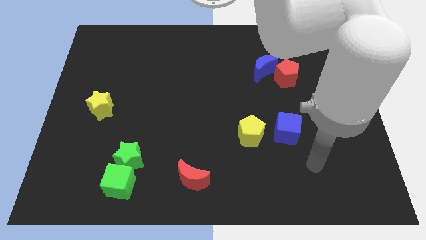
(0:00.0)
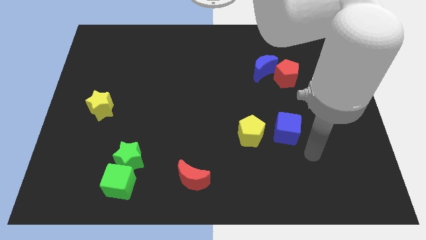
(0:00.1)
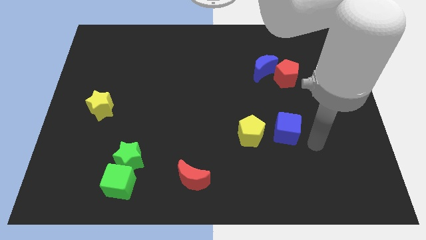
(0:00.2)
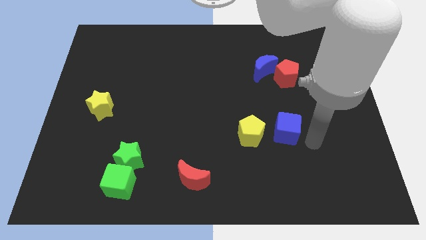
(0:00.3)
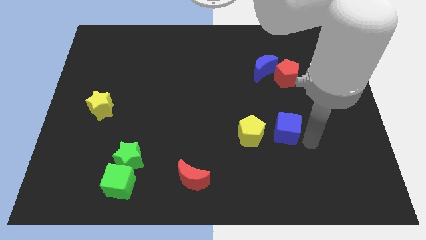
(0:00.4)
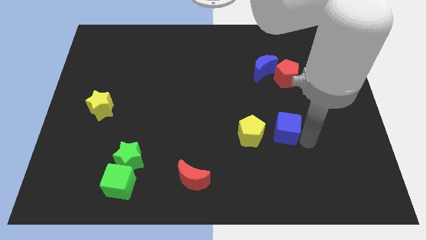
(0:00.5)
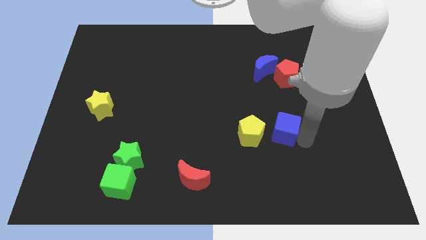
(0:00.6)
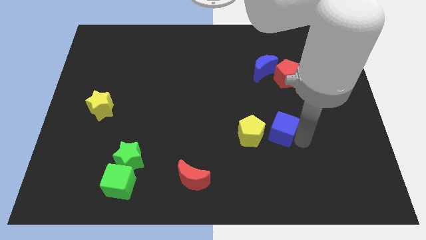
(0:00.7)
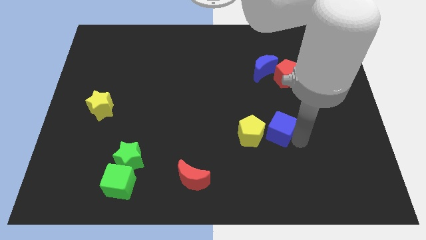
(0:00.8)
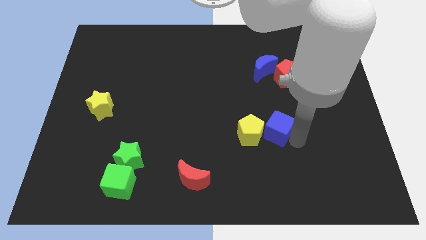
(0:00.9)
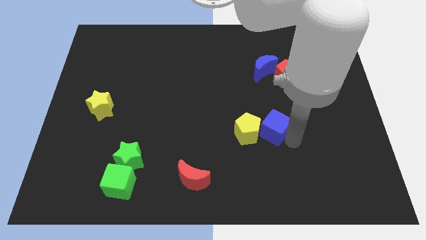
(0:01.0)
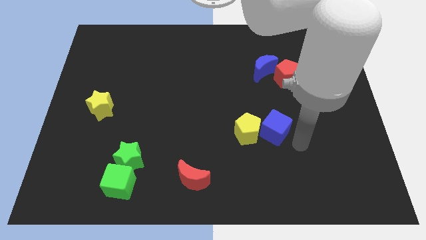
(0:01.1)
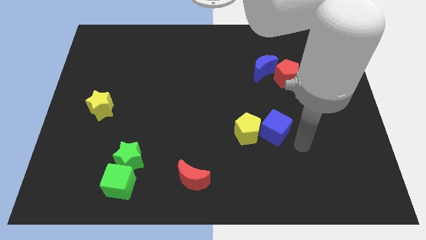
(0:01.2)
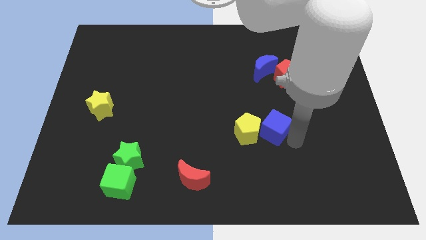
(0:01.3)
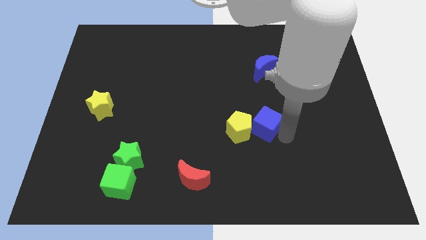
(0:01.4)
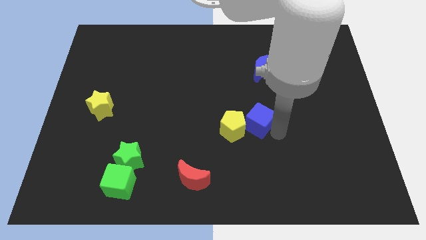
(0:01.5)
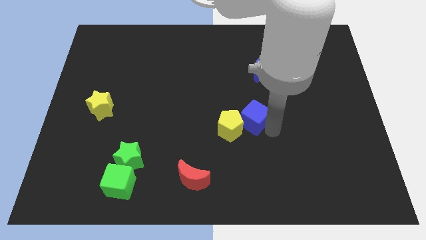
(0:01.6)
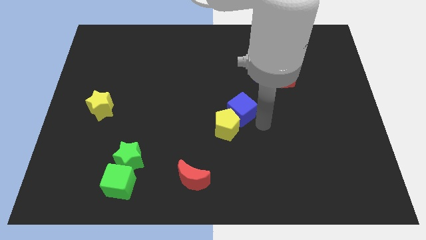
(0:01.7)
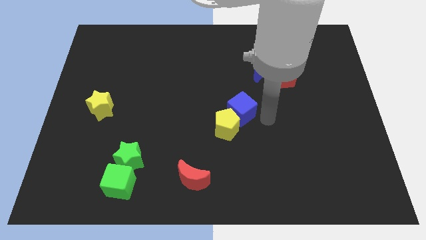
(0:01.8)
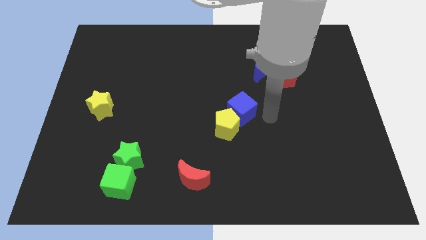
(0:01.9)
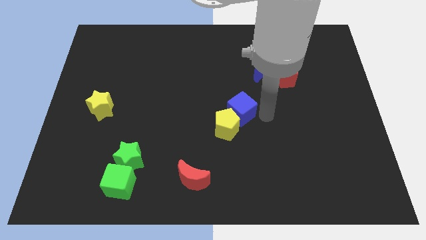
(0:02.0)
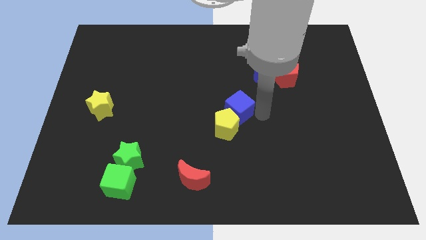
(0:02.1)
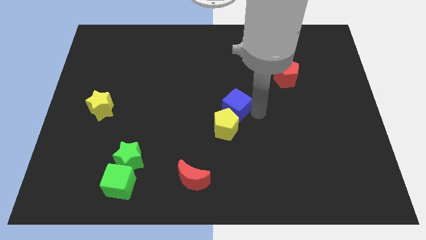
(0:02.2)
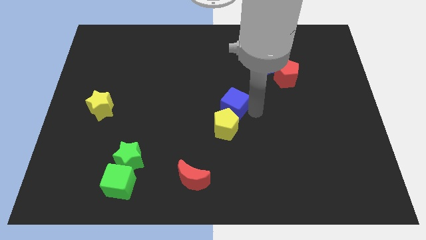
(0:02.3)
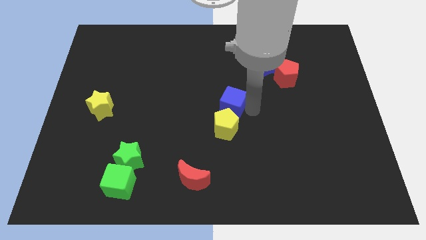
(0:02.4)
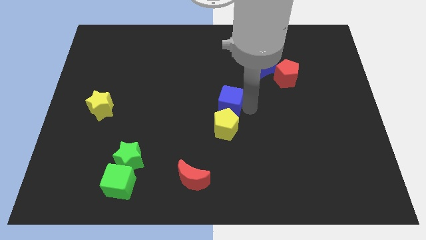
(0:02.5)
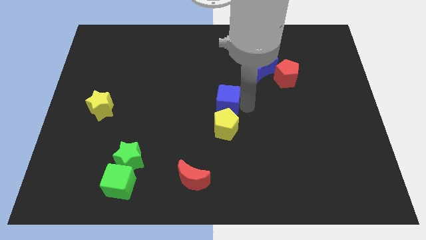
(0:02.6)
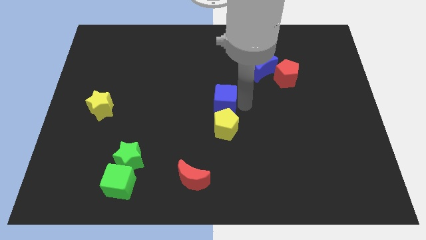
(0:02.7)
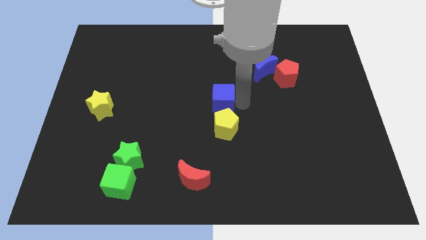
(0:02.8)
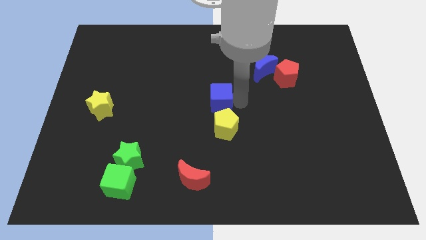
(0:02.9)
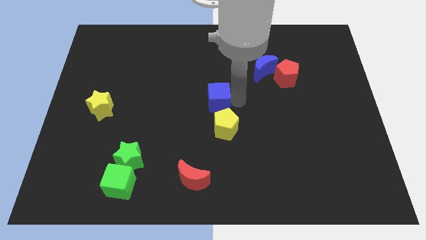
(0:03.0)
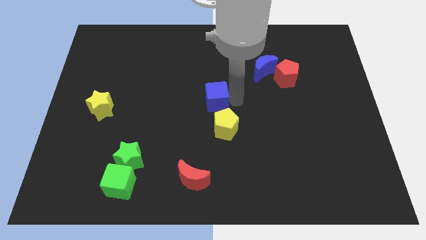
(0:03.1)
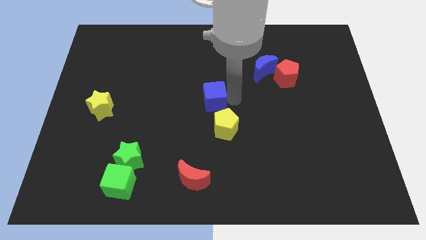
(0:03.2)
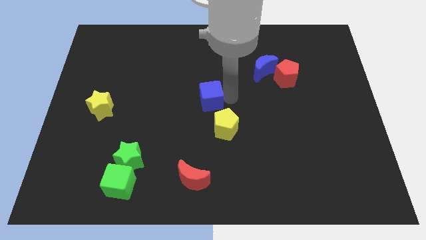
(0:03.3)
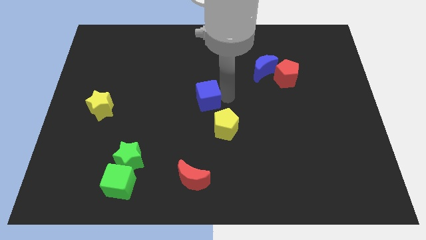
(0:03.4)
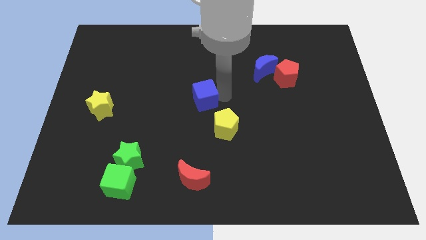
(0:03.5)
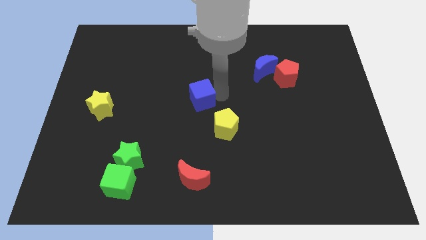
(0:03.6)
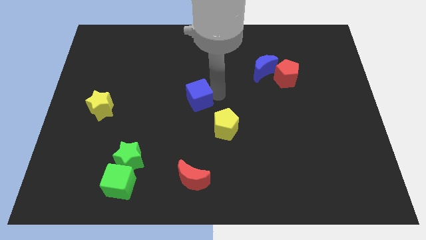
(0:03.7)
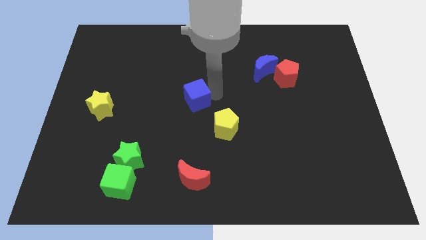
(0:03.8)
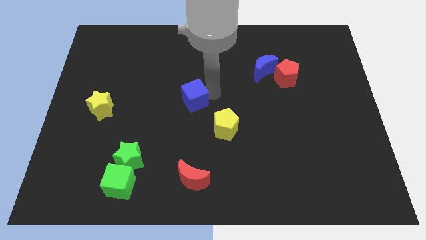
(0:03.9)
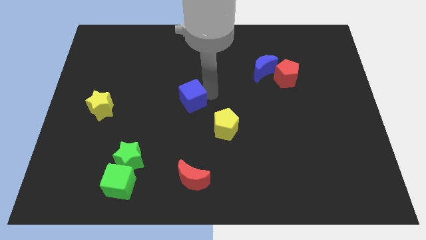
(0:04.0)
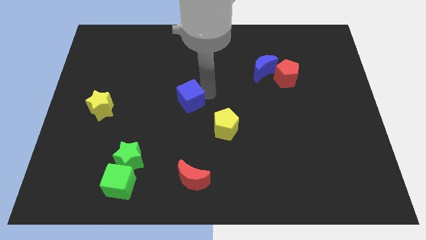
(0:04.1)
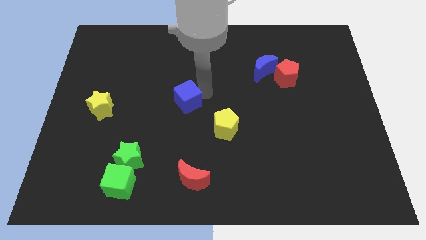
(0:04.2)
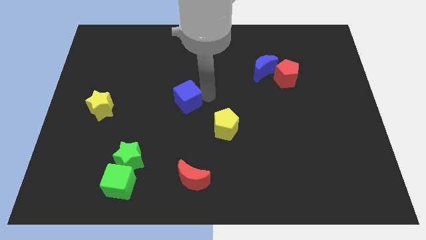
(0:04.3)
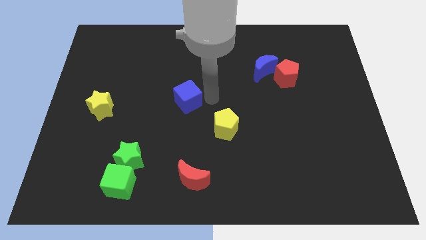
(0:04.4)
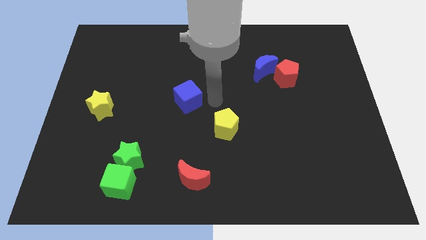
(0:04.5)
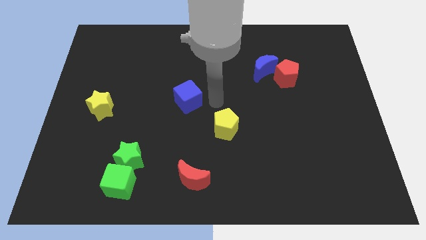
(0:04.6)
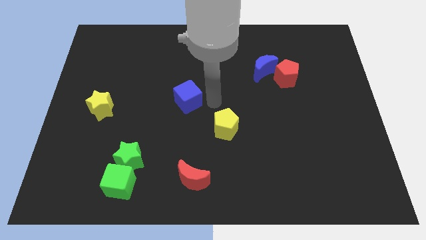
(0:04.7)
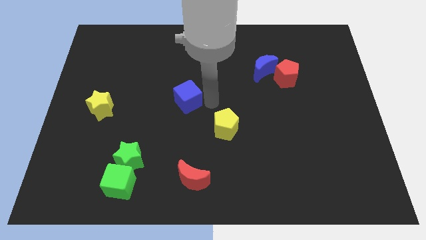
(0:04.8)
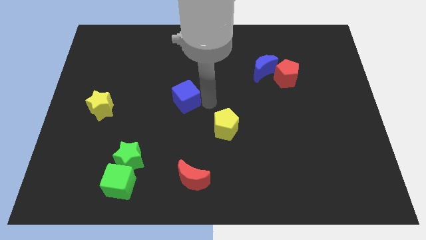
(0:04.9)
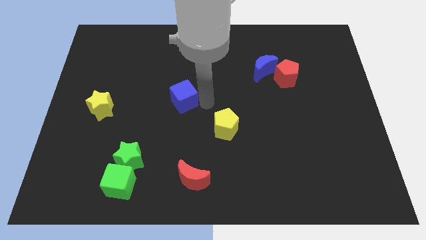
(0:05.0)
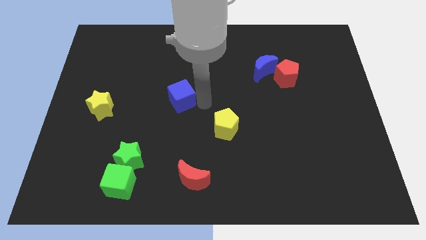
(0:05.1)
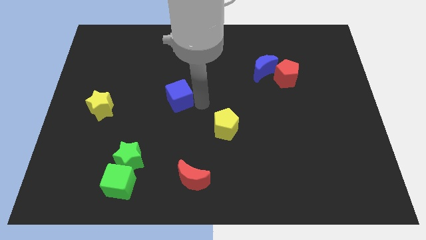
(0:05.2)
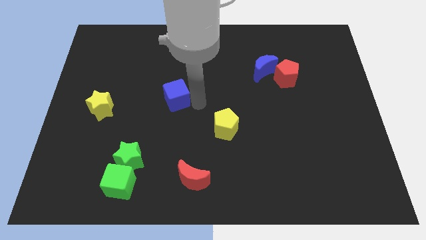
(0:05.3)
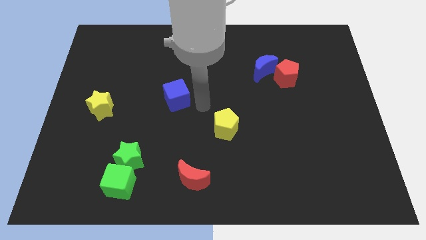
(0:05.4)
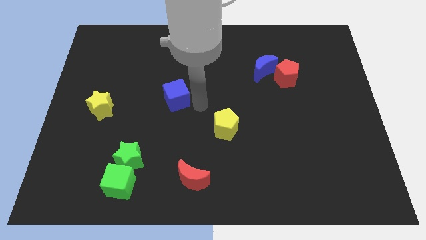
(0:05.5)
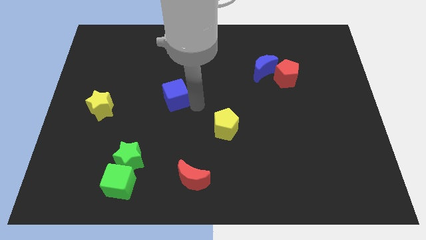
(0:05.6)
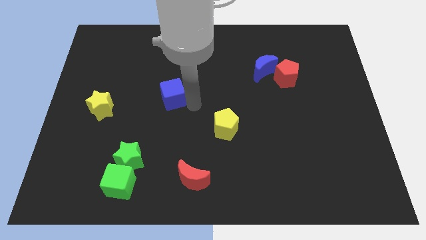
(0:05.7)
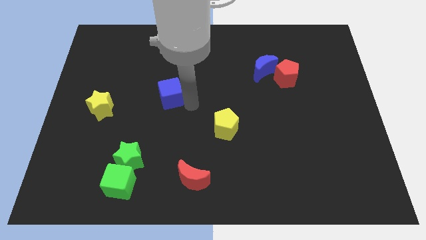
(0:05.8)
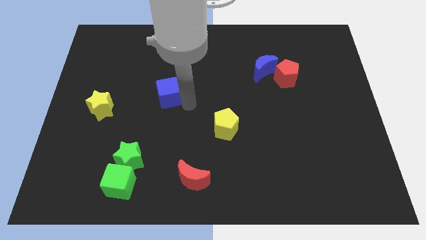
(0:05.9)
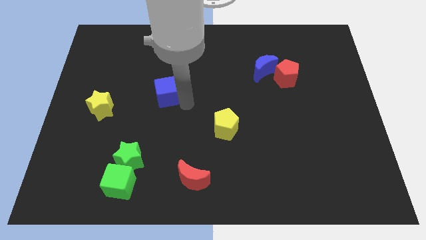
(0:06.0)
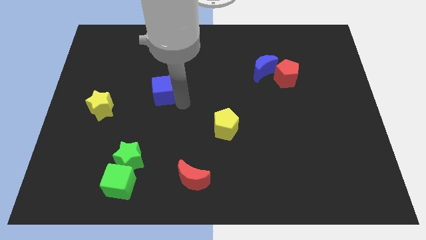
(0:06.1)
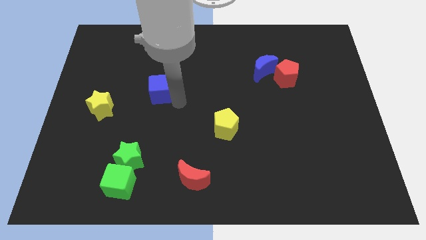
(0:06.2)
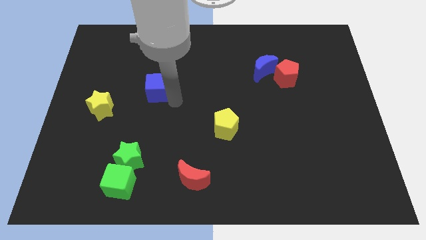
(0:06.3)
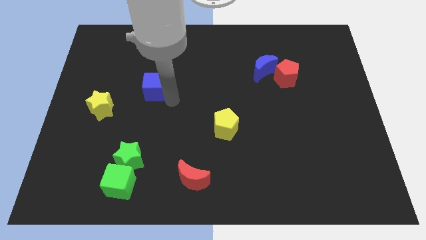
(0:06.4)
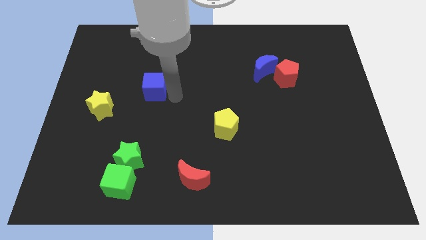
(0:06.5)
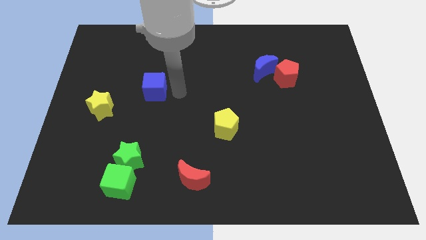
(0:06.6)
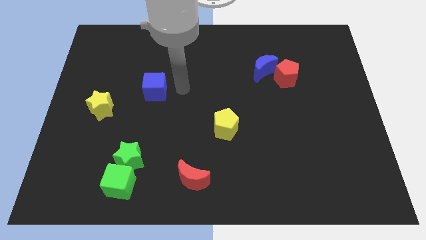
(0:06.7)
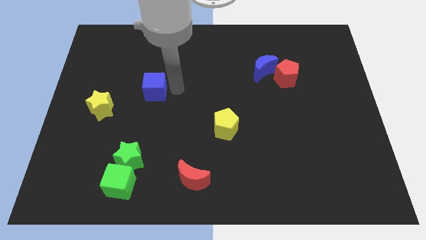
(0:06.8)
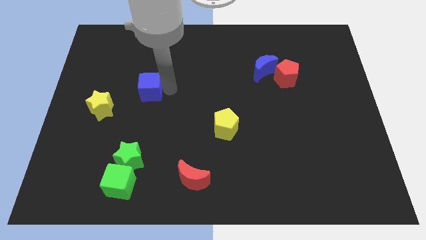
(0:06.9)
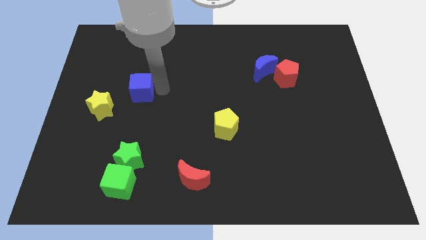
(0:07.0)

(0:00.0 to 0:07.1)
put the blue cube diagonally up and to the right of the yellow star

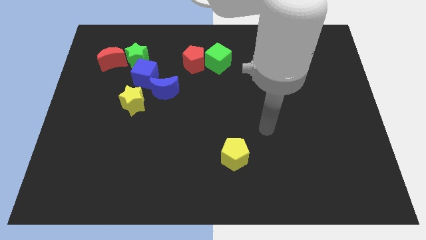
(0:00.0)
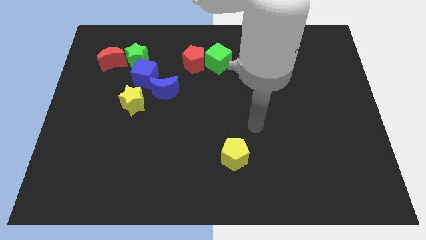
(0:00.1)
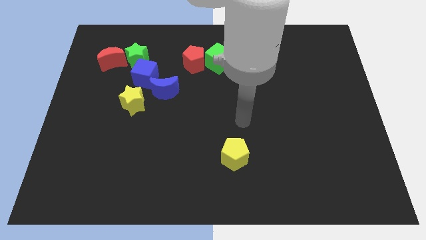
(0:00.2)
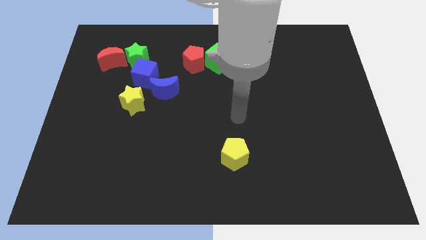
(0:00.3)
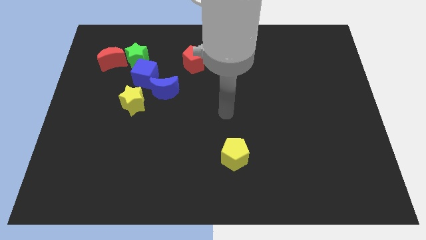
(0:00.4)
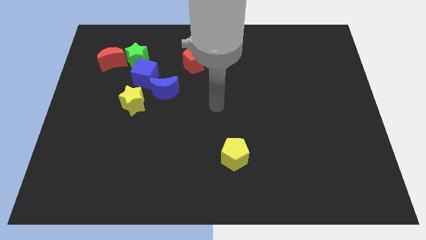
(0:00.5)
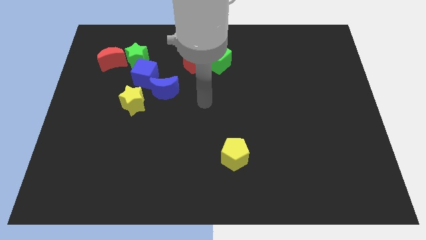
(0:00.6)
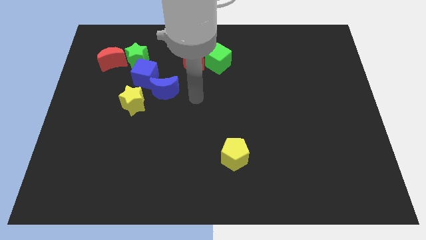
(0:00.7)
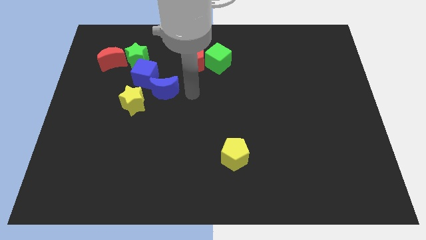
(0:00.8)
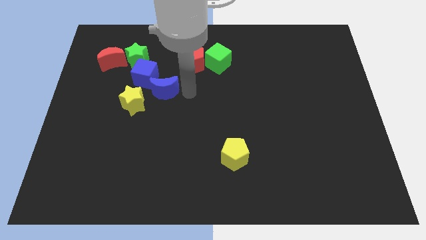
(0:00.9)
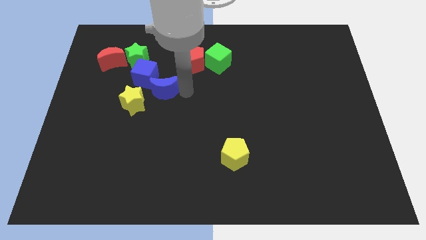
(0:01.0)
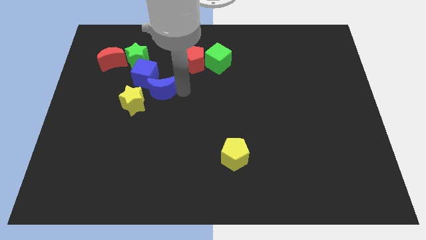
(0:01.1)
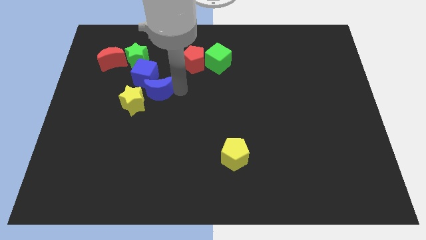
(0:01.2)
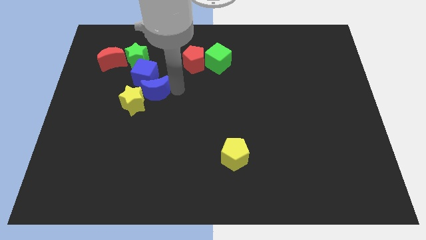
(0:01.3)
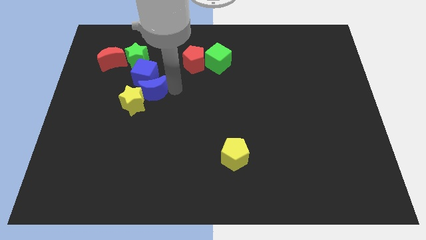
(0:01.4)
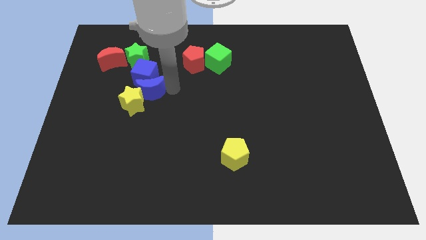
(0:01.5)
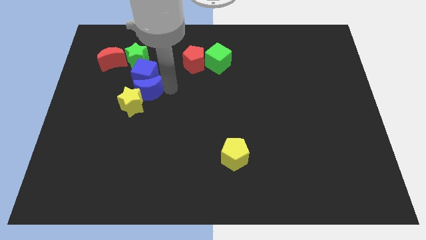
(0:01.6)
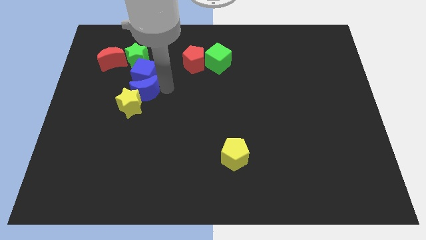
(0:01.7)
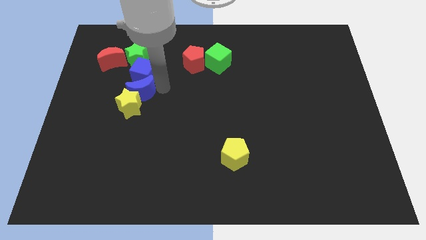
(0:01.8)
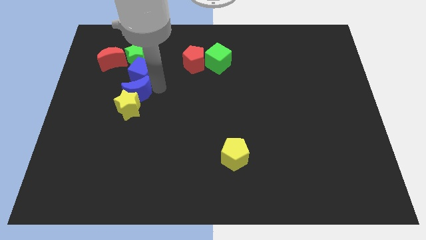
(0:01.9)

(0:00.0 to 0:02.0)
slide the blue moon to the top left side of the yellow star
